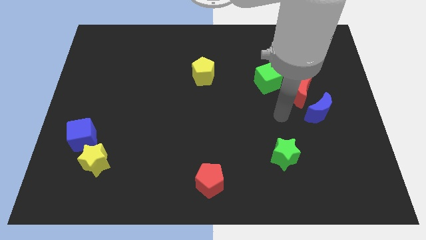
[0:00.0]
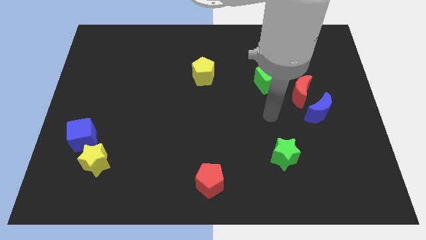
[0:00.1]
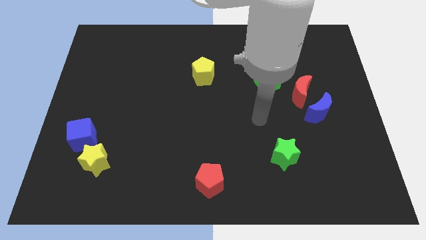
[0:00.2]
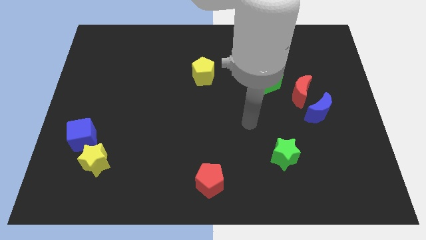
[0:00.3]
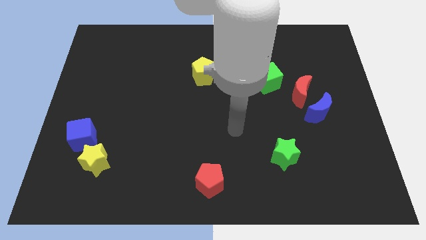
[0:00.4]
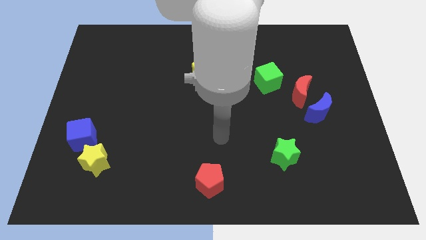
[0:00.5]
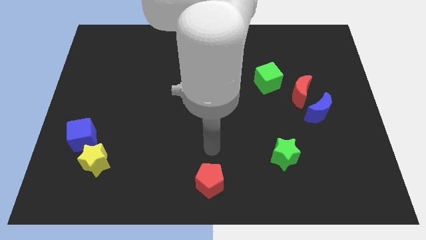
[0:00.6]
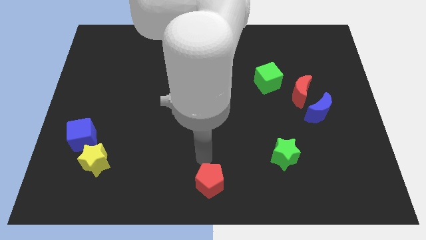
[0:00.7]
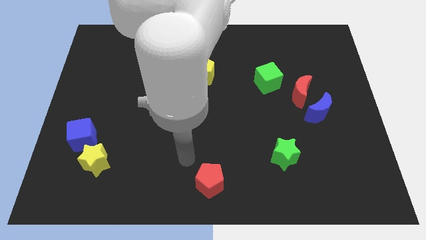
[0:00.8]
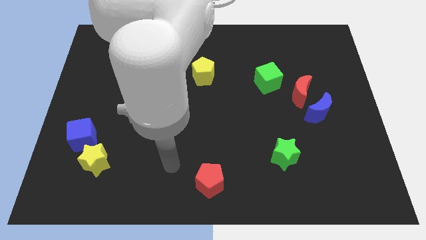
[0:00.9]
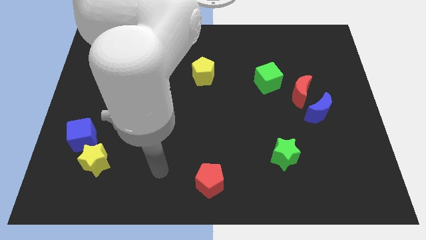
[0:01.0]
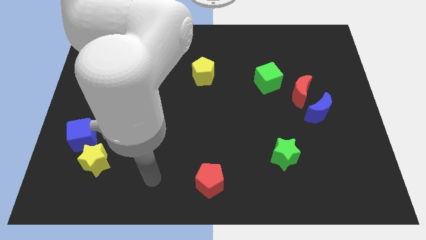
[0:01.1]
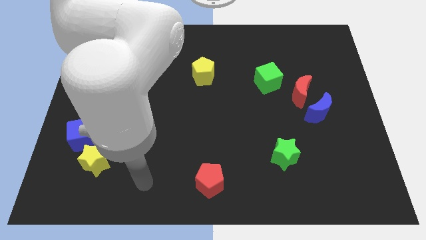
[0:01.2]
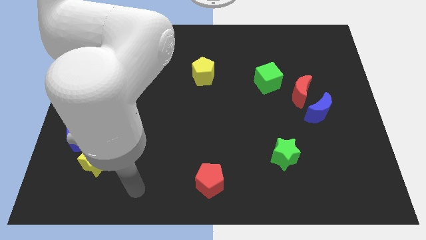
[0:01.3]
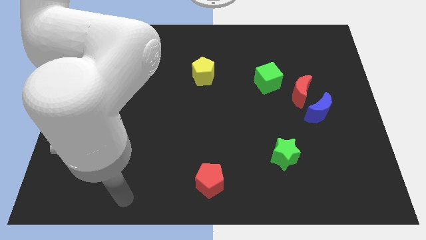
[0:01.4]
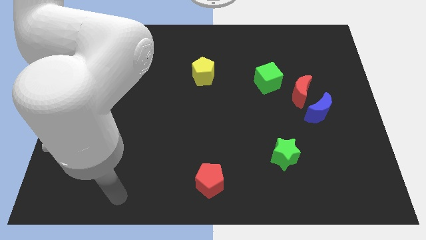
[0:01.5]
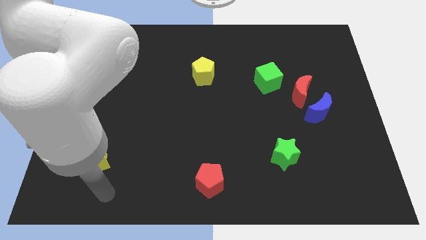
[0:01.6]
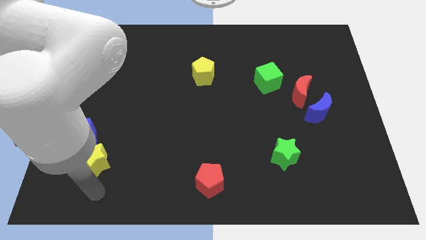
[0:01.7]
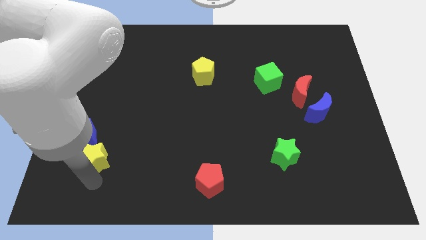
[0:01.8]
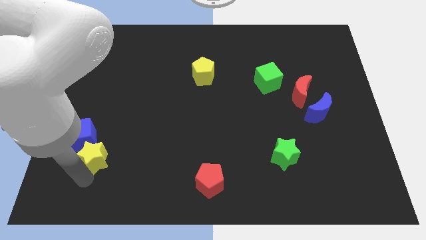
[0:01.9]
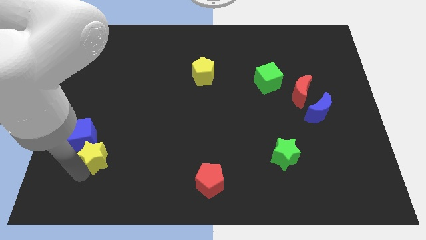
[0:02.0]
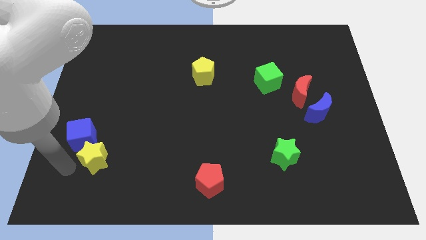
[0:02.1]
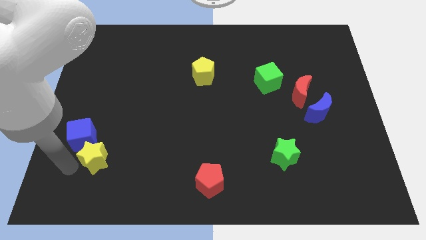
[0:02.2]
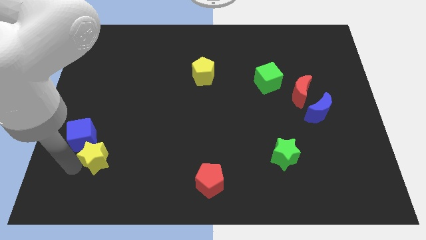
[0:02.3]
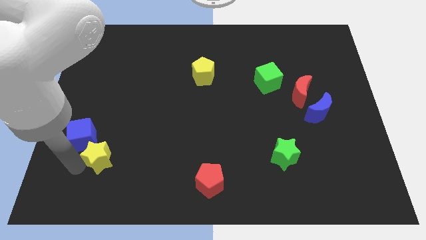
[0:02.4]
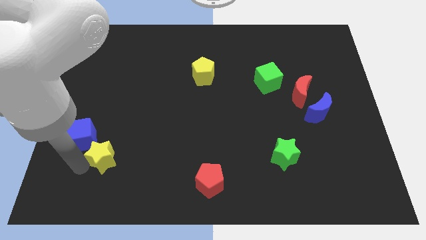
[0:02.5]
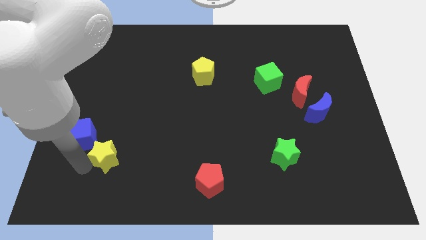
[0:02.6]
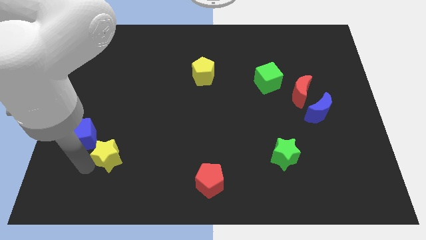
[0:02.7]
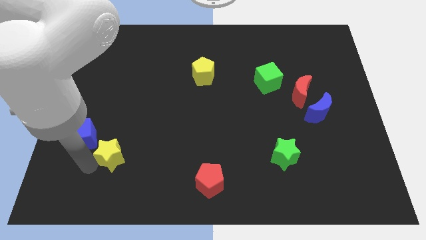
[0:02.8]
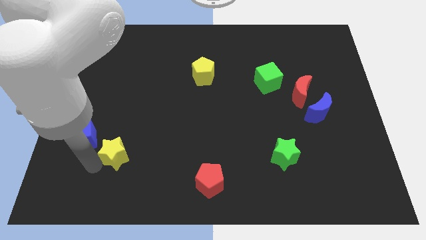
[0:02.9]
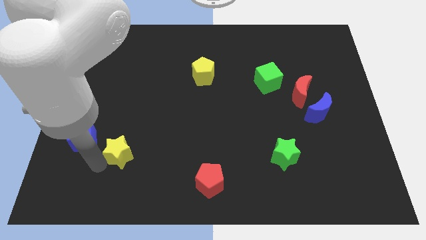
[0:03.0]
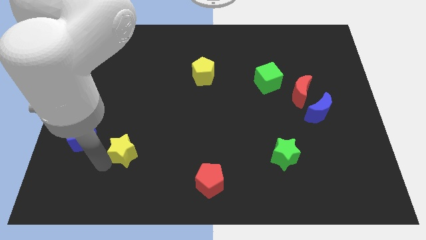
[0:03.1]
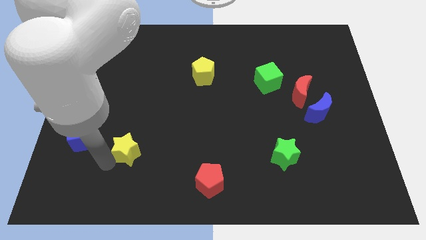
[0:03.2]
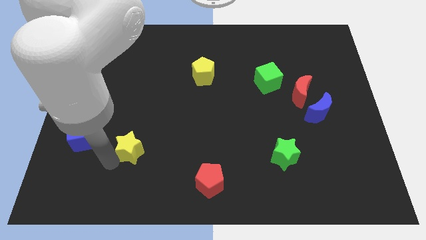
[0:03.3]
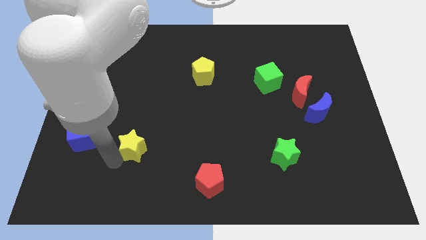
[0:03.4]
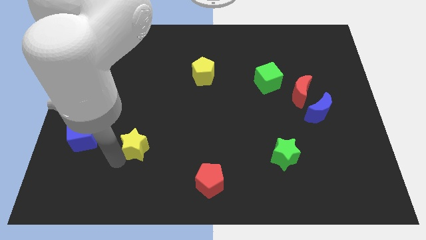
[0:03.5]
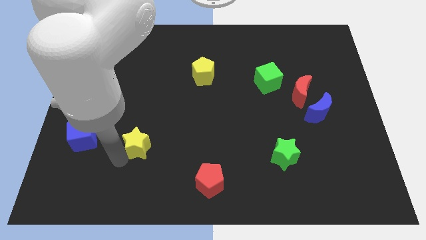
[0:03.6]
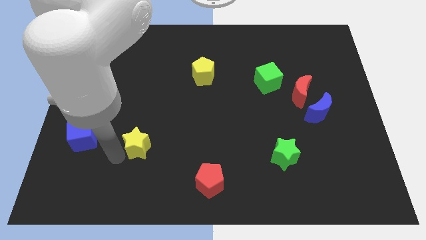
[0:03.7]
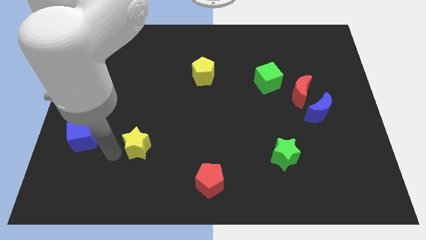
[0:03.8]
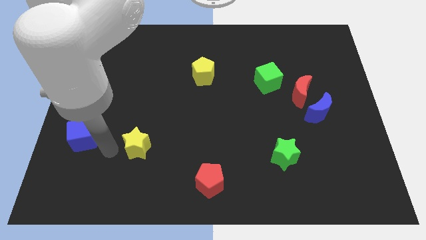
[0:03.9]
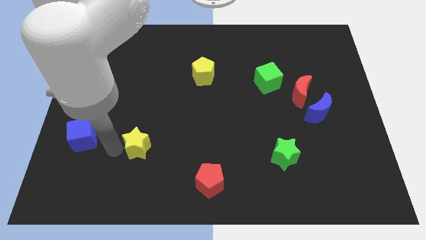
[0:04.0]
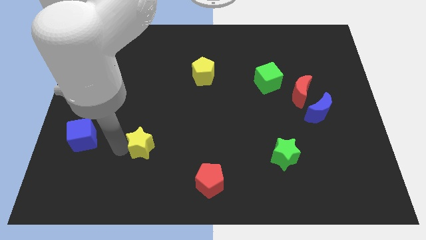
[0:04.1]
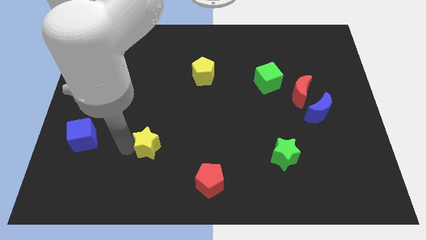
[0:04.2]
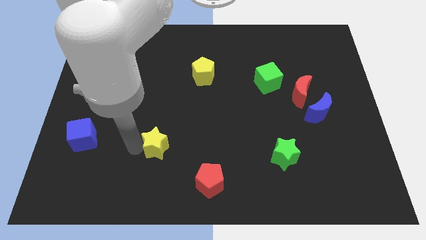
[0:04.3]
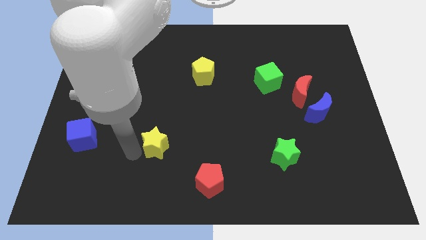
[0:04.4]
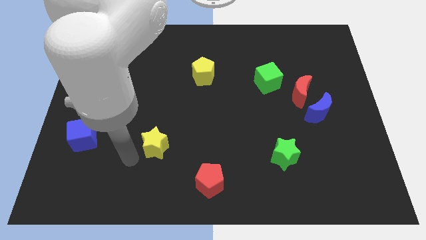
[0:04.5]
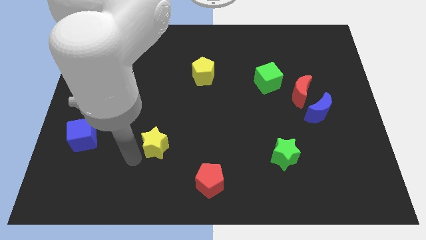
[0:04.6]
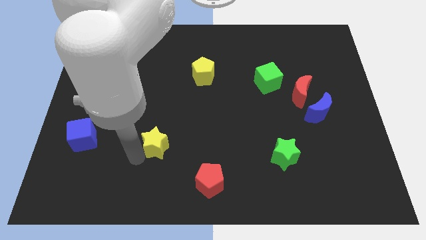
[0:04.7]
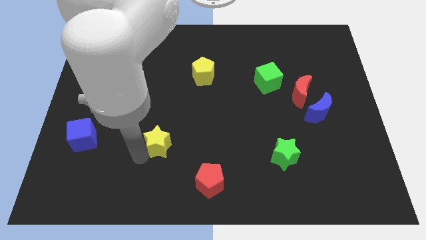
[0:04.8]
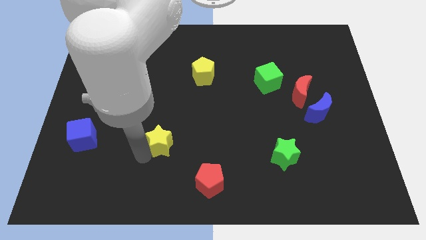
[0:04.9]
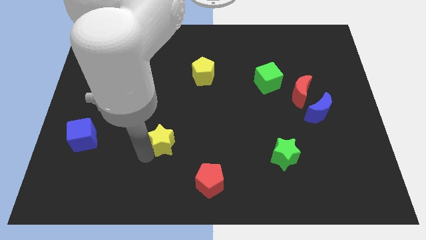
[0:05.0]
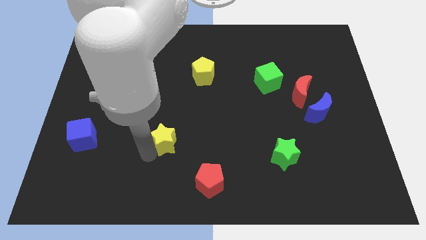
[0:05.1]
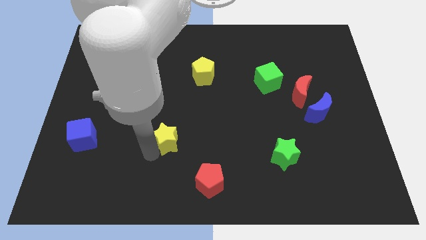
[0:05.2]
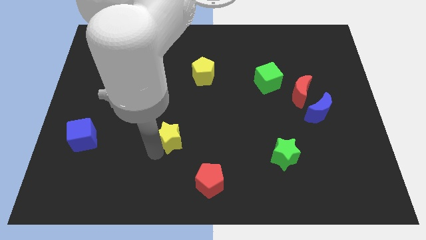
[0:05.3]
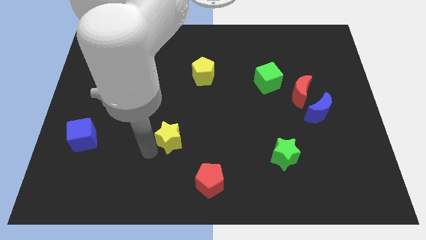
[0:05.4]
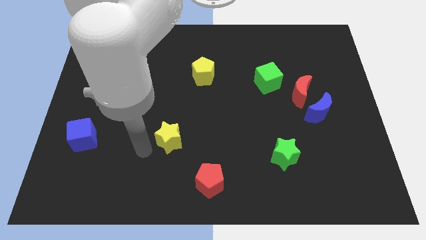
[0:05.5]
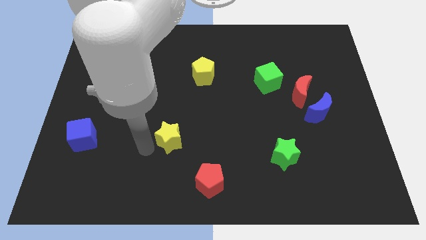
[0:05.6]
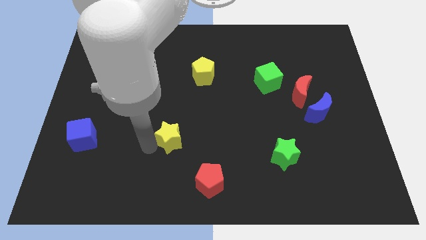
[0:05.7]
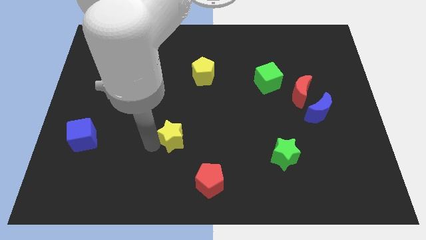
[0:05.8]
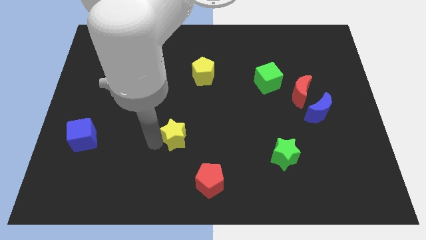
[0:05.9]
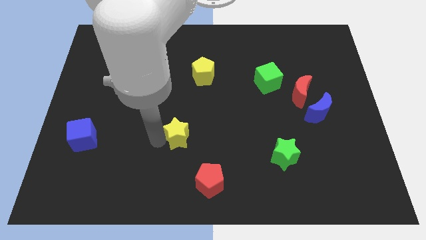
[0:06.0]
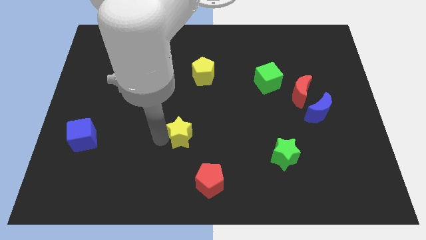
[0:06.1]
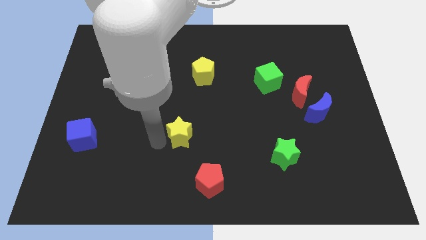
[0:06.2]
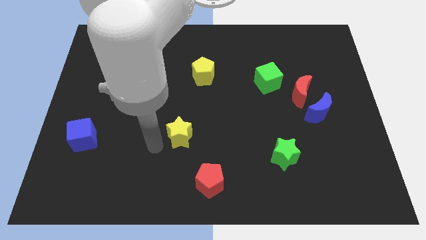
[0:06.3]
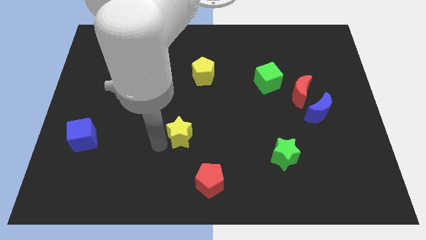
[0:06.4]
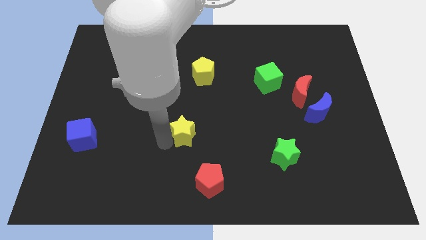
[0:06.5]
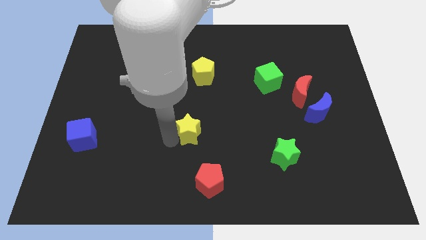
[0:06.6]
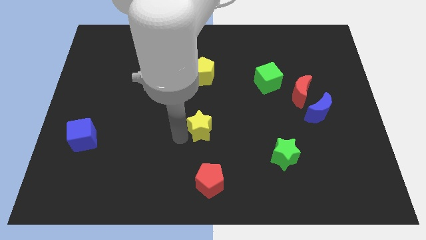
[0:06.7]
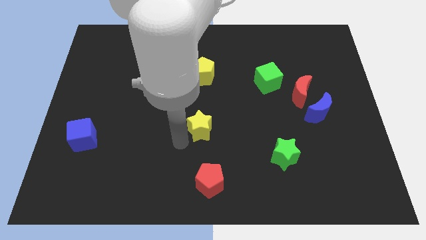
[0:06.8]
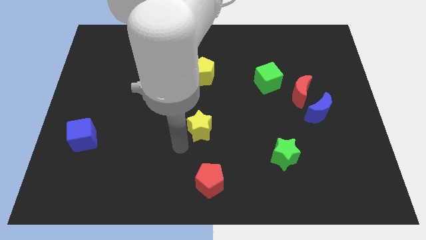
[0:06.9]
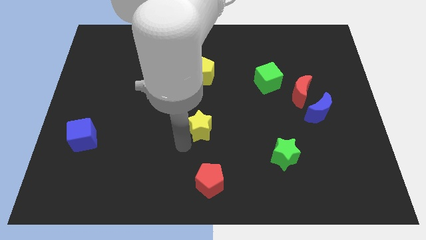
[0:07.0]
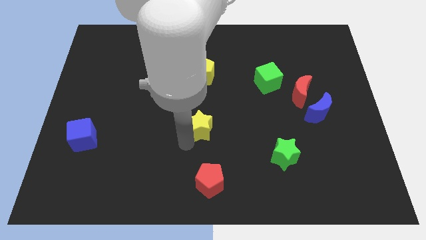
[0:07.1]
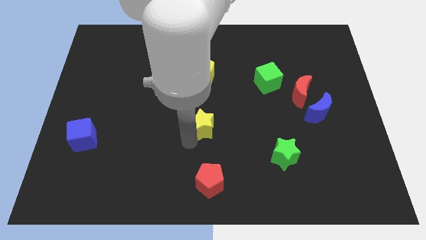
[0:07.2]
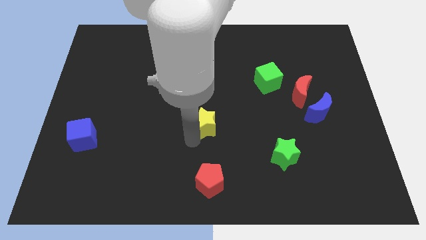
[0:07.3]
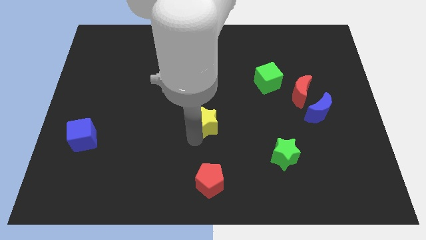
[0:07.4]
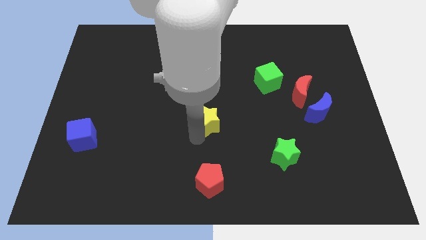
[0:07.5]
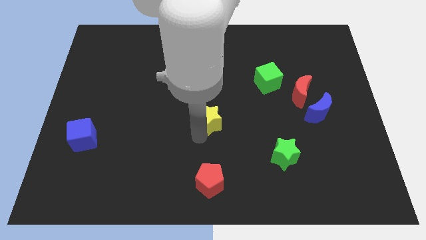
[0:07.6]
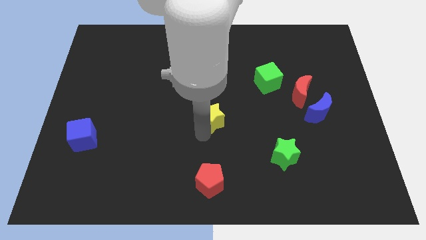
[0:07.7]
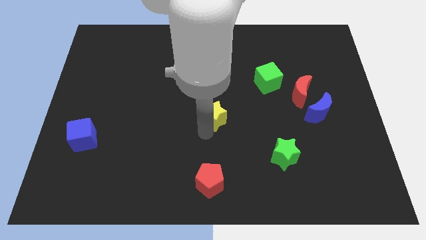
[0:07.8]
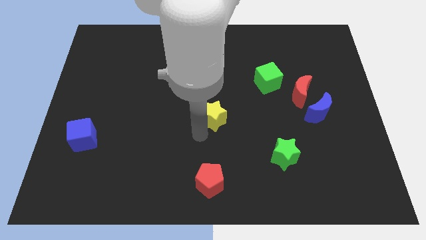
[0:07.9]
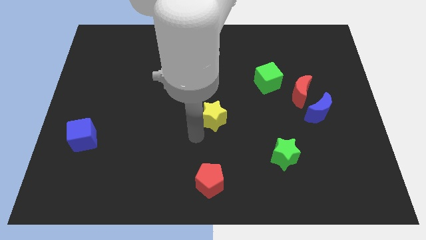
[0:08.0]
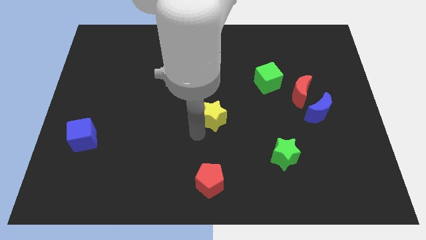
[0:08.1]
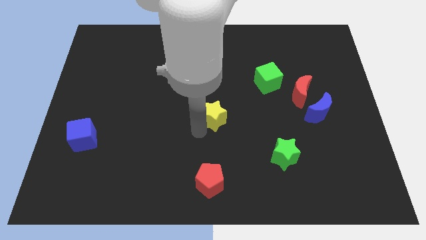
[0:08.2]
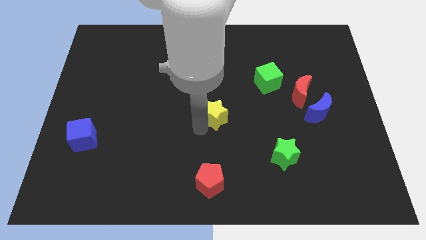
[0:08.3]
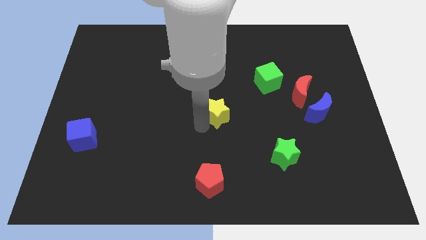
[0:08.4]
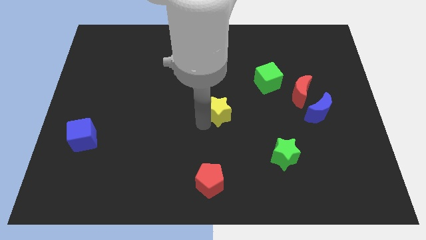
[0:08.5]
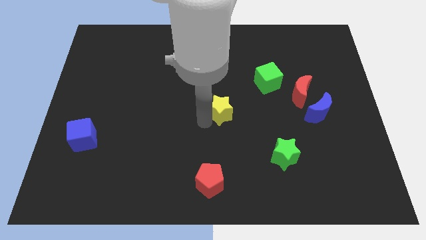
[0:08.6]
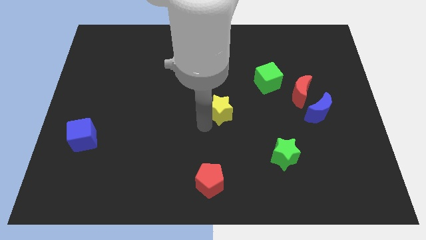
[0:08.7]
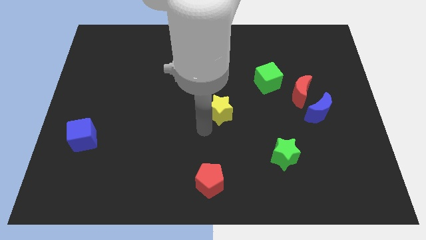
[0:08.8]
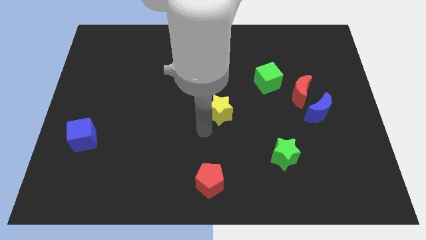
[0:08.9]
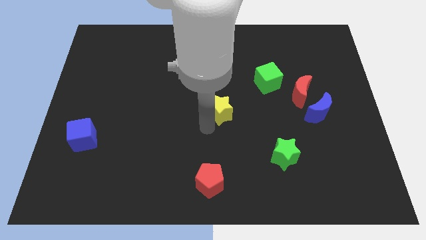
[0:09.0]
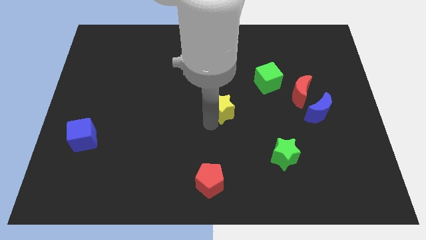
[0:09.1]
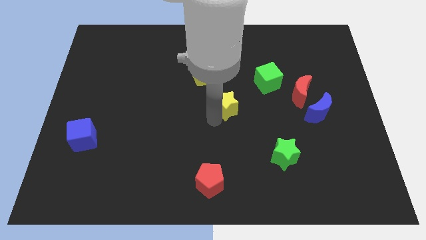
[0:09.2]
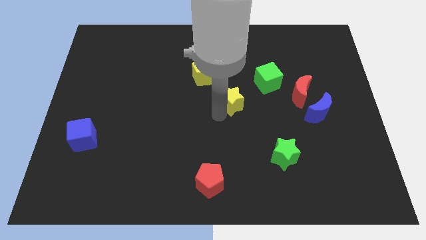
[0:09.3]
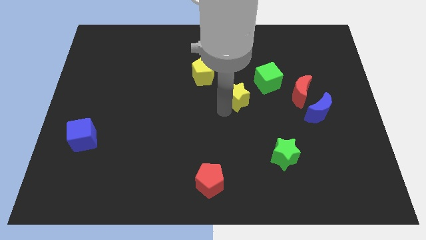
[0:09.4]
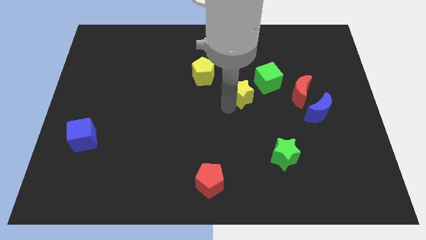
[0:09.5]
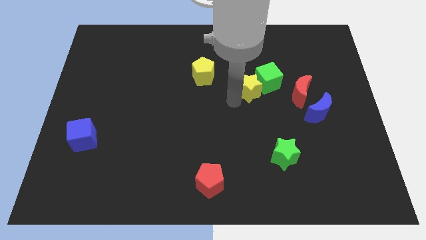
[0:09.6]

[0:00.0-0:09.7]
put the yellow star next to the green cube
